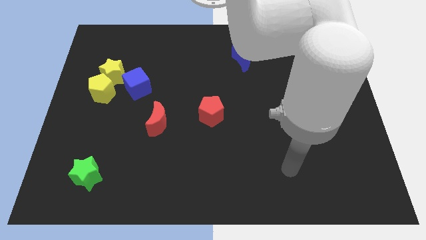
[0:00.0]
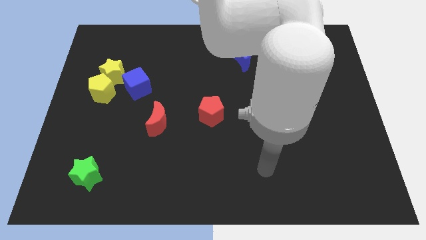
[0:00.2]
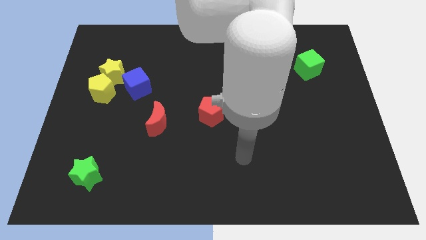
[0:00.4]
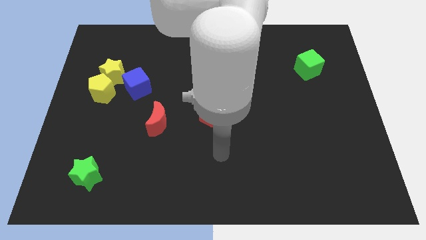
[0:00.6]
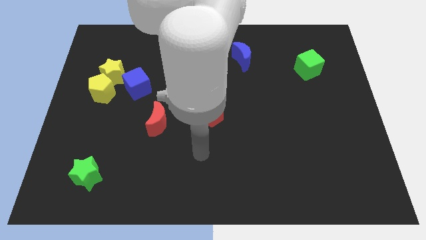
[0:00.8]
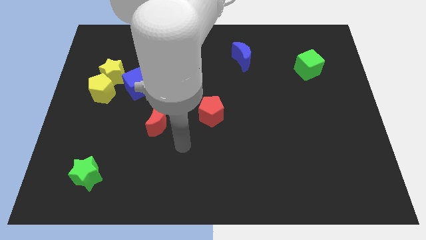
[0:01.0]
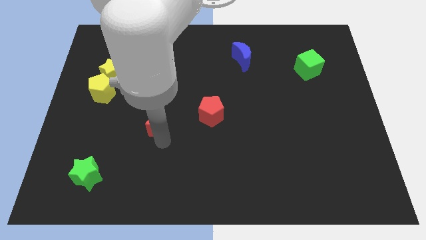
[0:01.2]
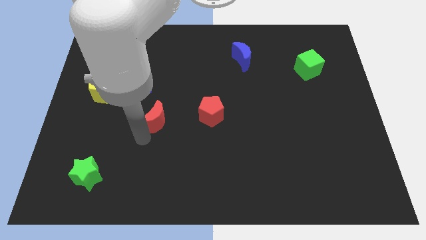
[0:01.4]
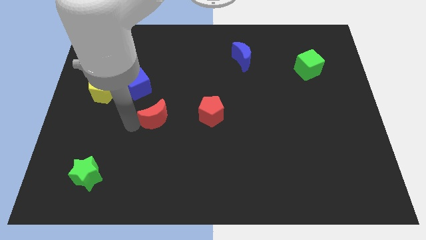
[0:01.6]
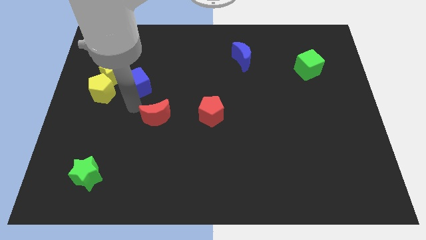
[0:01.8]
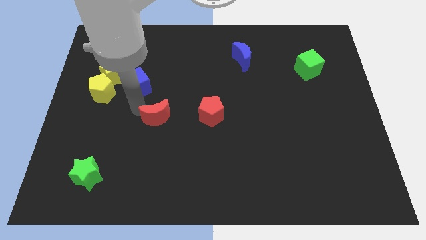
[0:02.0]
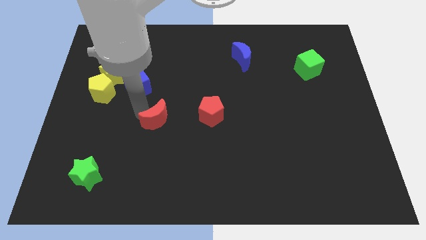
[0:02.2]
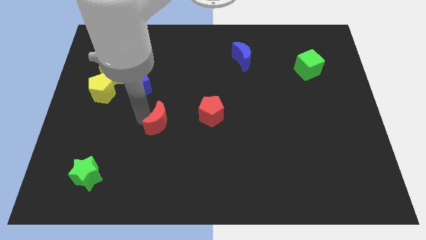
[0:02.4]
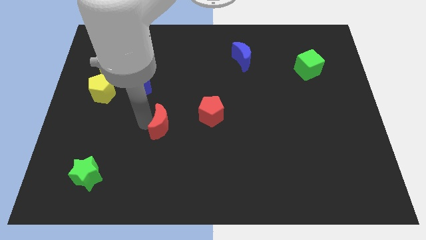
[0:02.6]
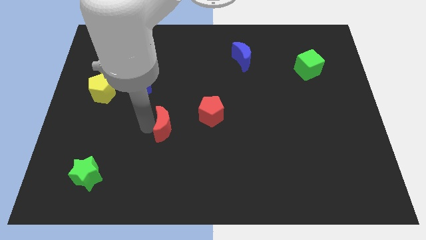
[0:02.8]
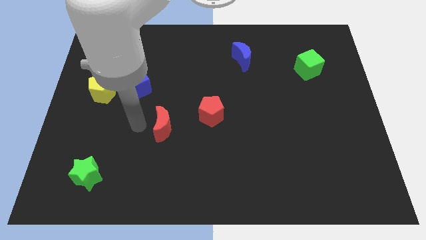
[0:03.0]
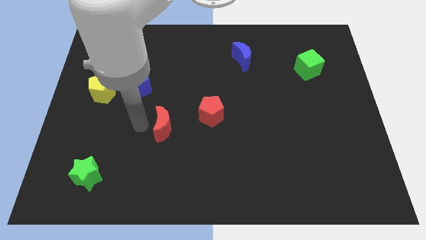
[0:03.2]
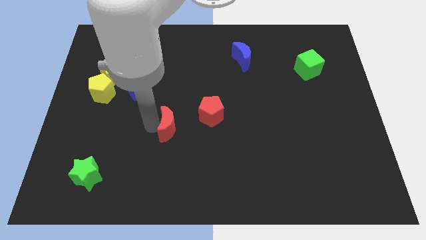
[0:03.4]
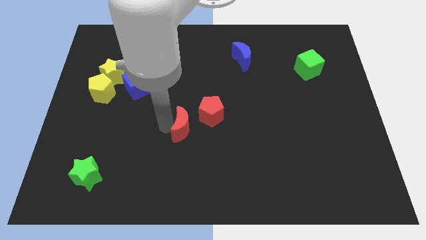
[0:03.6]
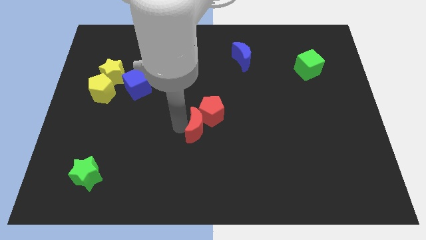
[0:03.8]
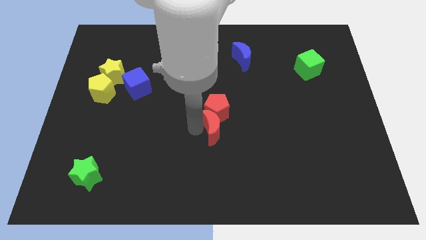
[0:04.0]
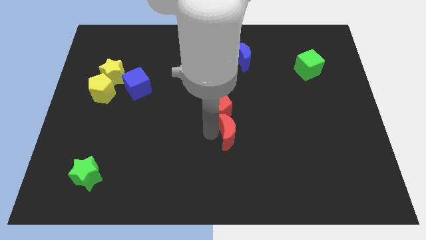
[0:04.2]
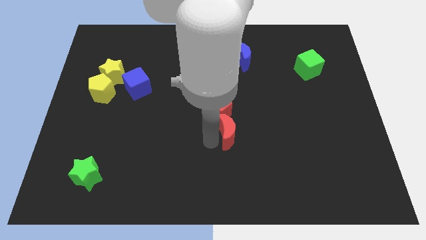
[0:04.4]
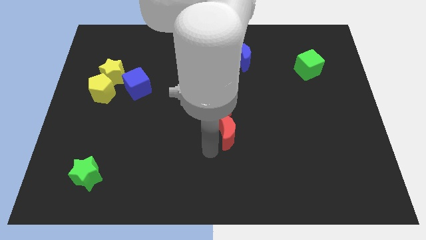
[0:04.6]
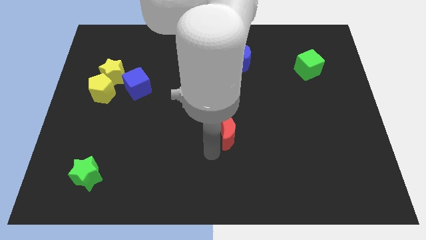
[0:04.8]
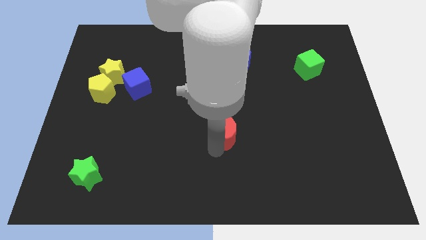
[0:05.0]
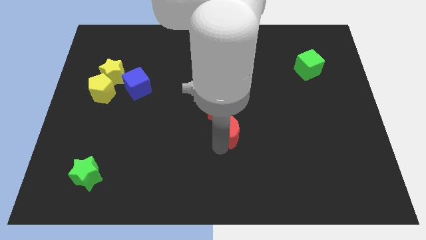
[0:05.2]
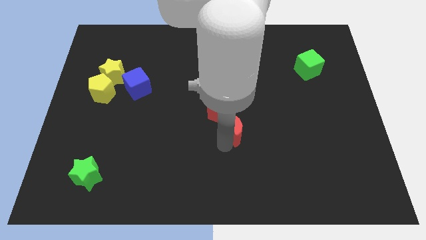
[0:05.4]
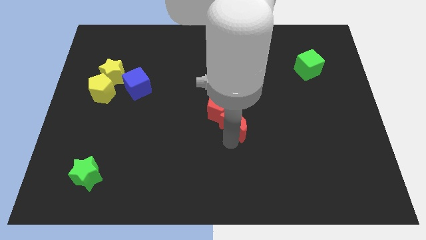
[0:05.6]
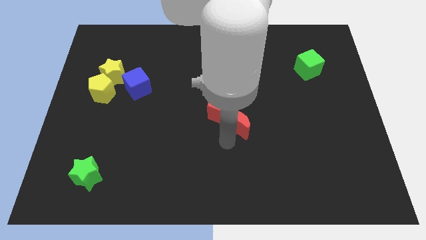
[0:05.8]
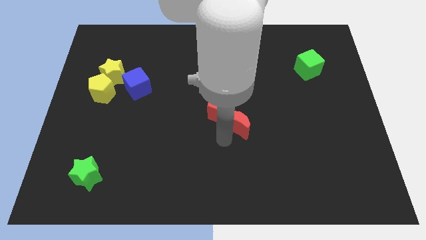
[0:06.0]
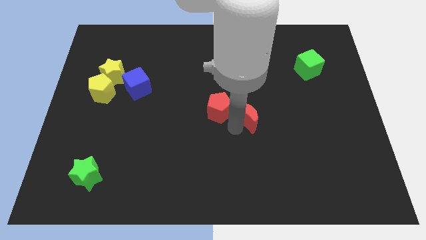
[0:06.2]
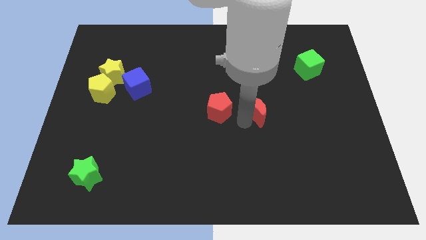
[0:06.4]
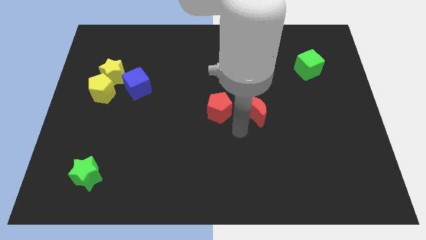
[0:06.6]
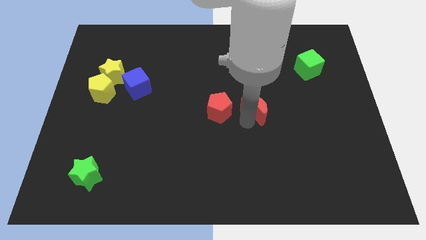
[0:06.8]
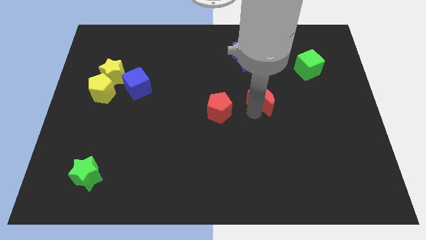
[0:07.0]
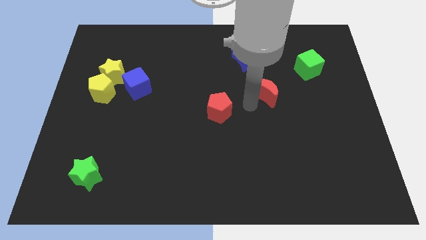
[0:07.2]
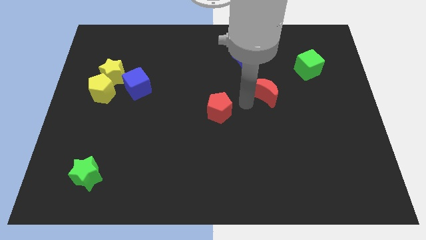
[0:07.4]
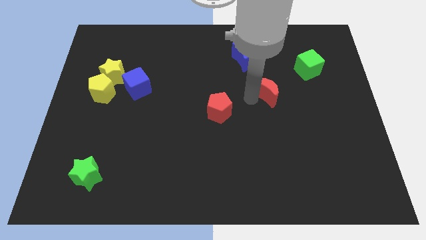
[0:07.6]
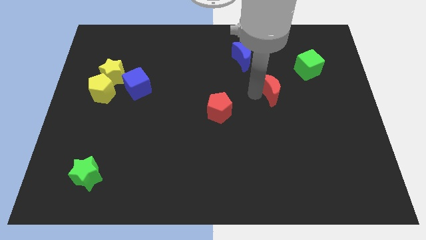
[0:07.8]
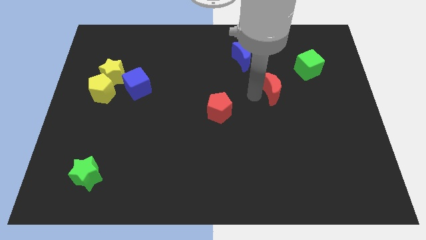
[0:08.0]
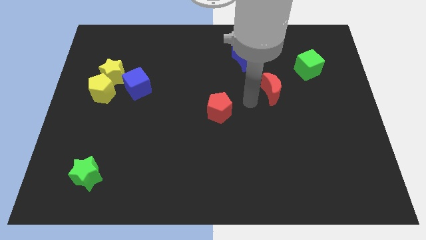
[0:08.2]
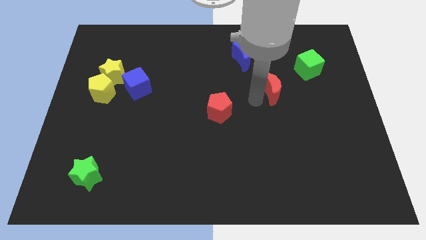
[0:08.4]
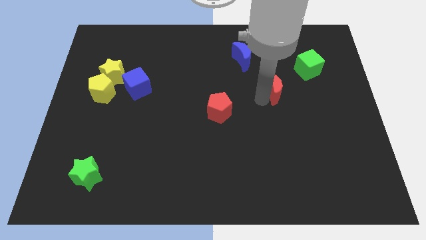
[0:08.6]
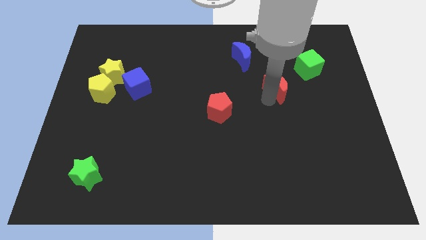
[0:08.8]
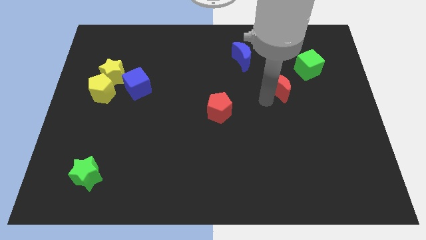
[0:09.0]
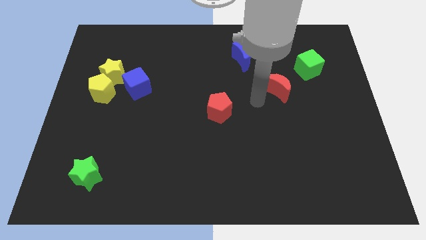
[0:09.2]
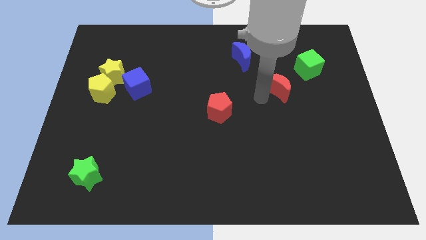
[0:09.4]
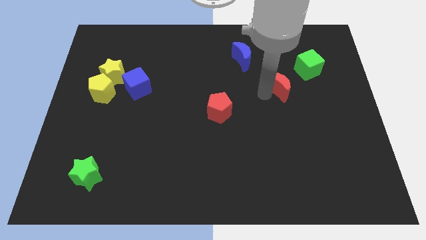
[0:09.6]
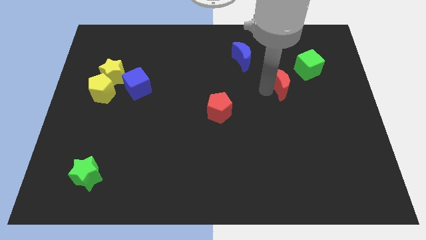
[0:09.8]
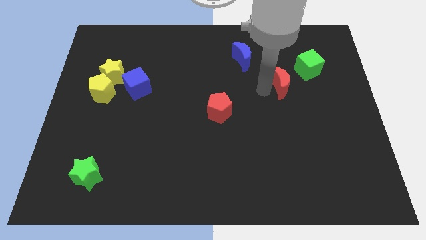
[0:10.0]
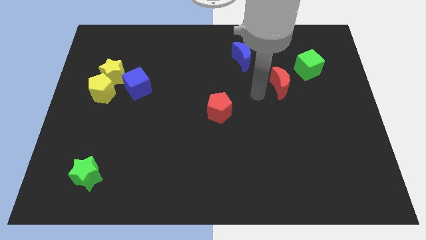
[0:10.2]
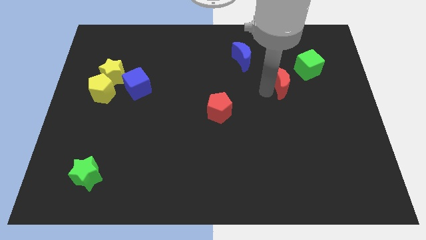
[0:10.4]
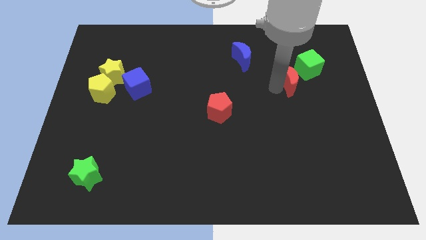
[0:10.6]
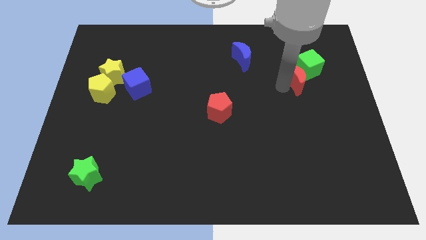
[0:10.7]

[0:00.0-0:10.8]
slide the red moon to the green cube

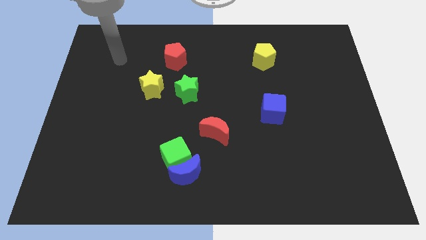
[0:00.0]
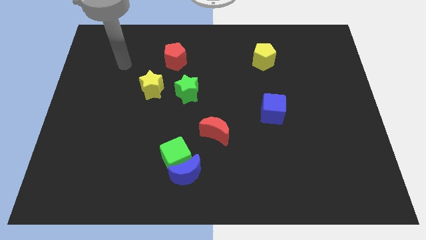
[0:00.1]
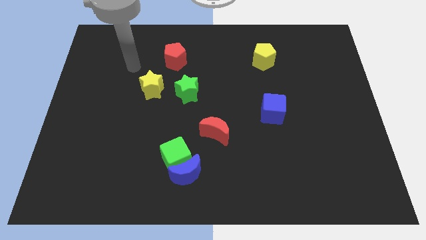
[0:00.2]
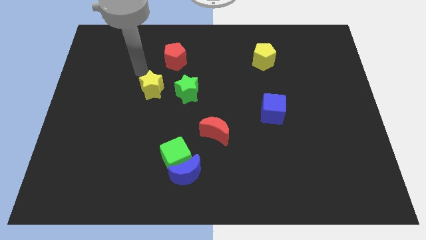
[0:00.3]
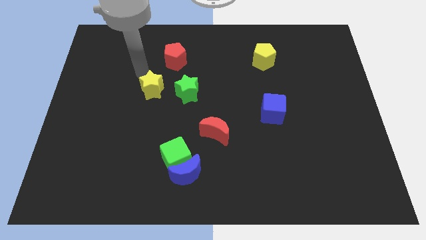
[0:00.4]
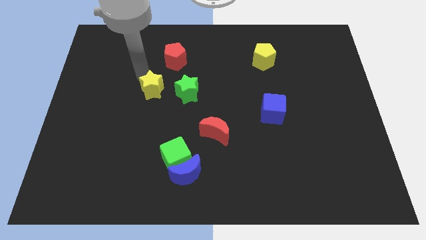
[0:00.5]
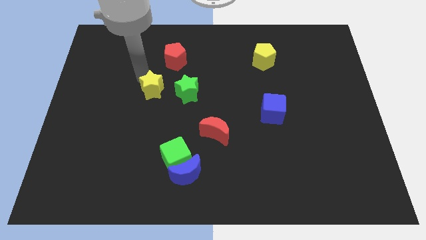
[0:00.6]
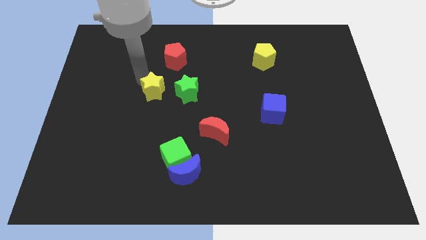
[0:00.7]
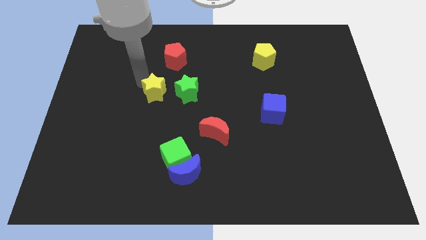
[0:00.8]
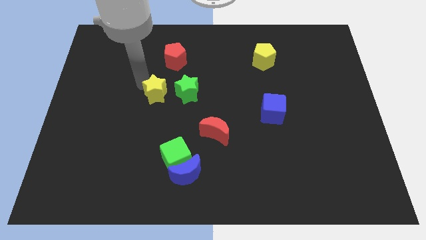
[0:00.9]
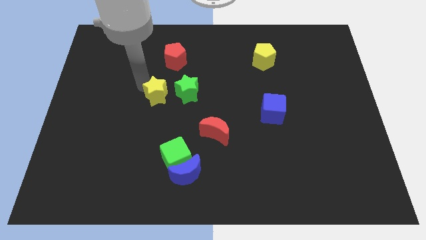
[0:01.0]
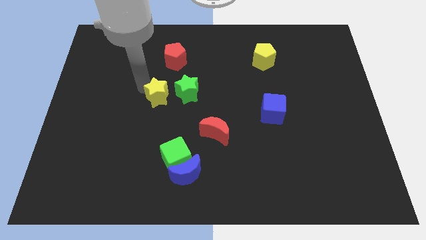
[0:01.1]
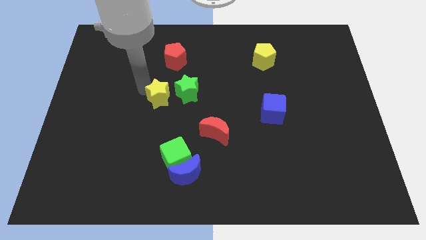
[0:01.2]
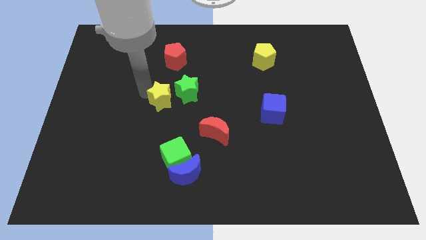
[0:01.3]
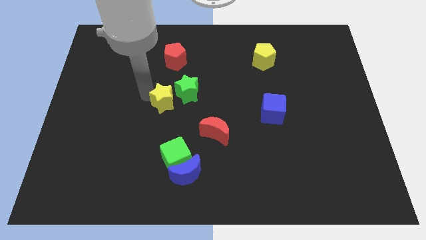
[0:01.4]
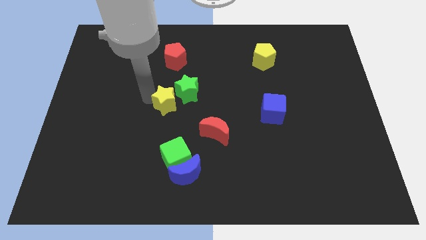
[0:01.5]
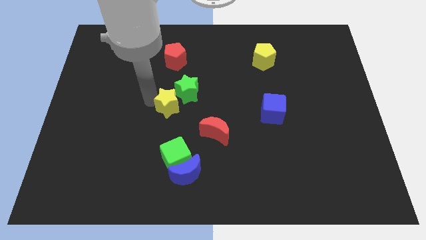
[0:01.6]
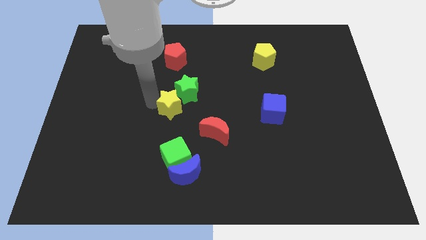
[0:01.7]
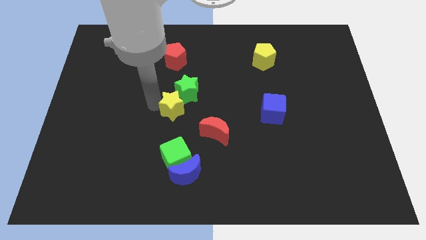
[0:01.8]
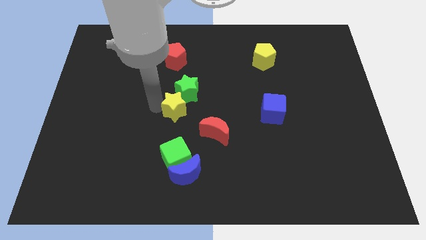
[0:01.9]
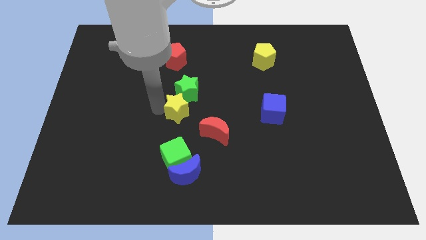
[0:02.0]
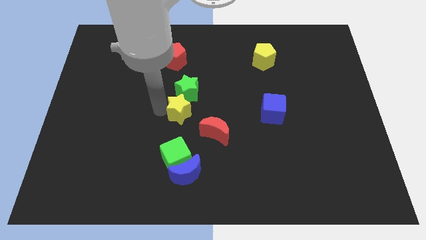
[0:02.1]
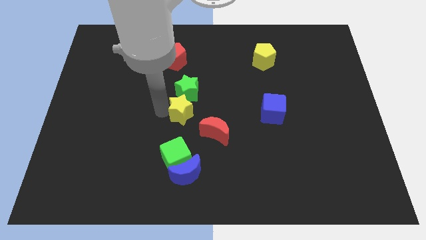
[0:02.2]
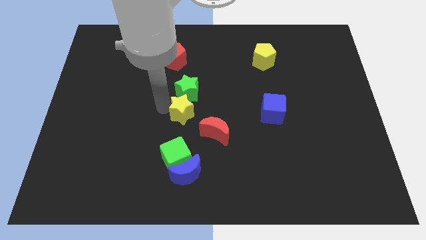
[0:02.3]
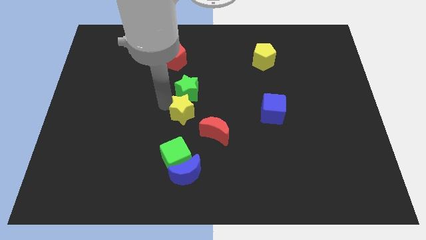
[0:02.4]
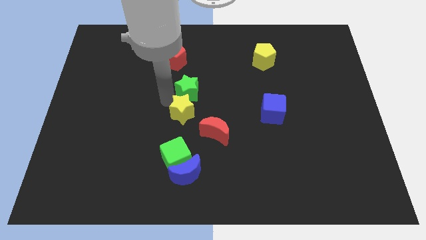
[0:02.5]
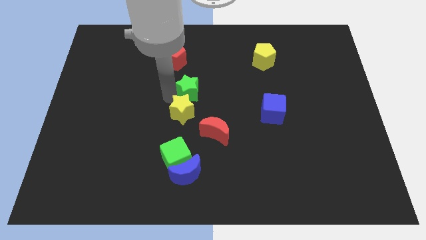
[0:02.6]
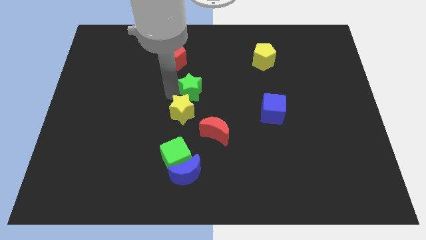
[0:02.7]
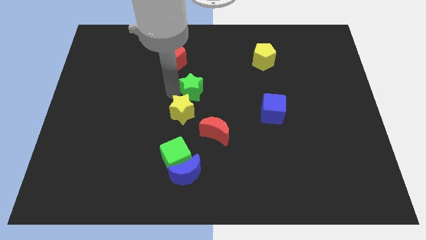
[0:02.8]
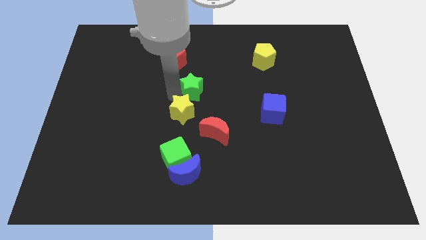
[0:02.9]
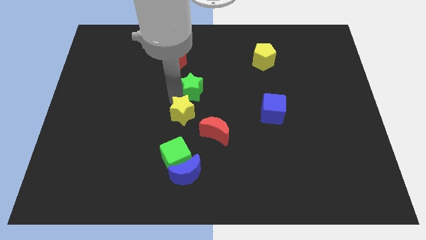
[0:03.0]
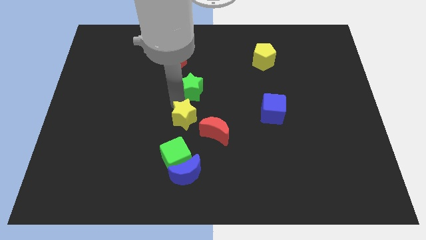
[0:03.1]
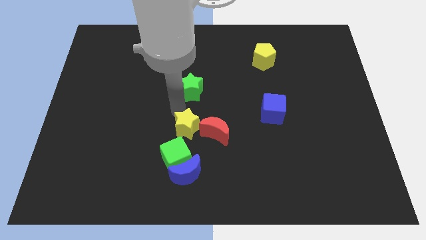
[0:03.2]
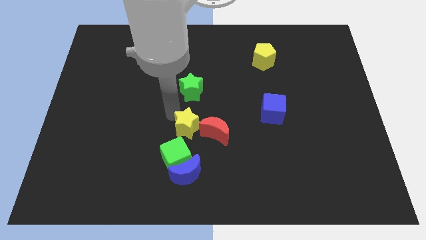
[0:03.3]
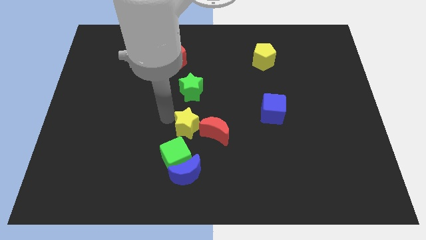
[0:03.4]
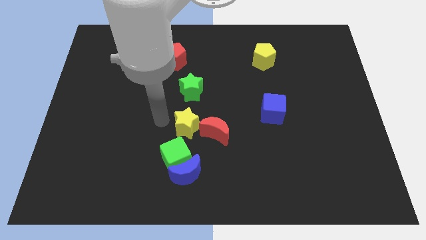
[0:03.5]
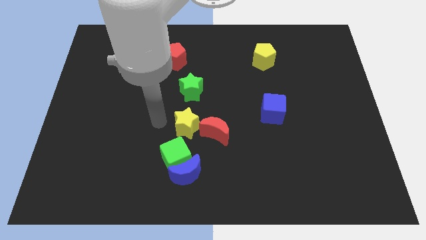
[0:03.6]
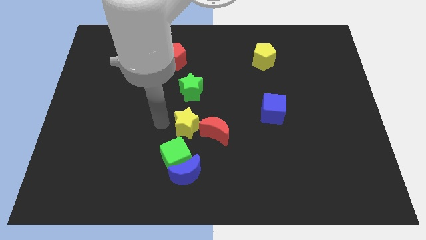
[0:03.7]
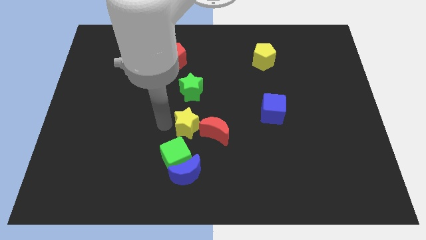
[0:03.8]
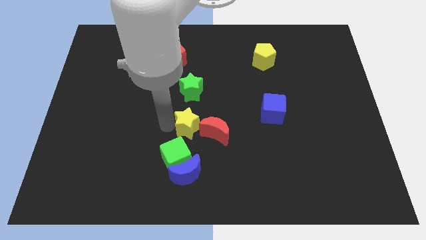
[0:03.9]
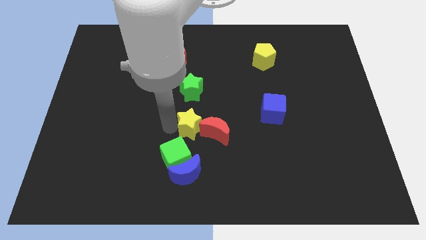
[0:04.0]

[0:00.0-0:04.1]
push the yellow star close to the red moon
